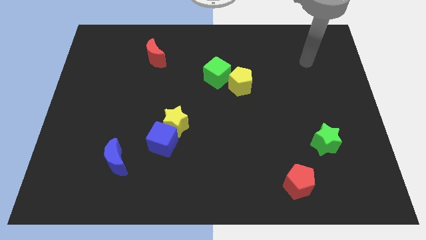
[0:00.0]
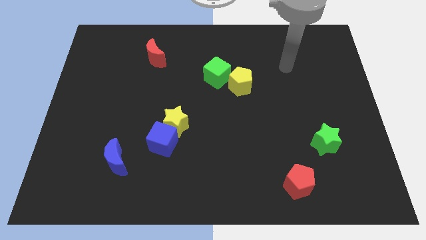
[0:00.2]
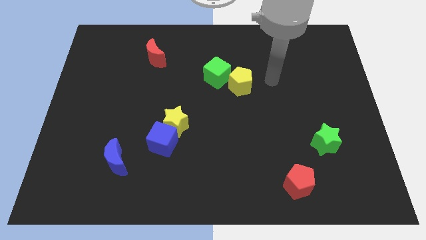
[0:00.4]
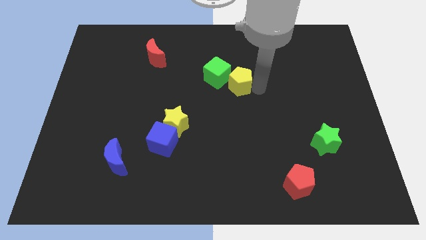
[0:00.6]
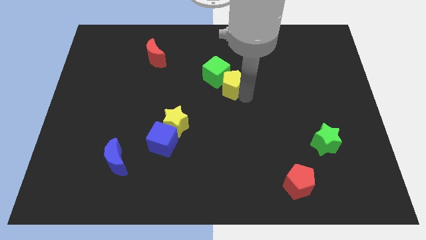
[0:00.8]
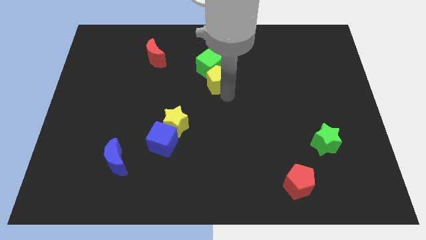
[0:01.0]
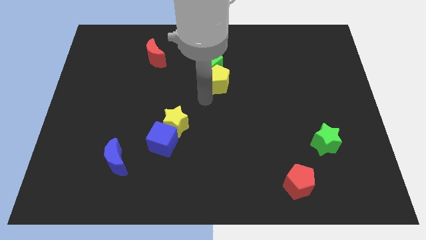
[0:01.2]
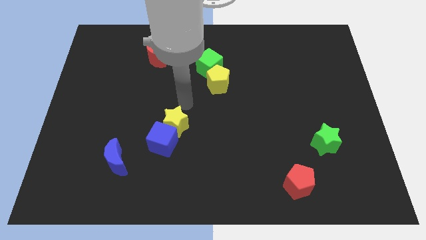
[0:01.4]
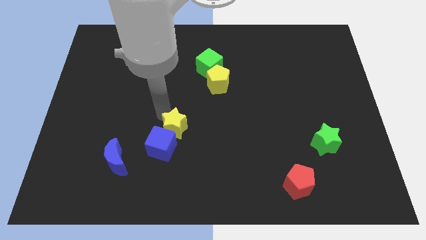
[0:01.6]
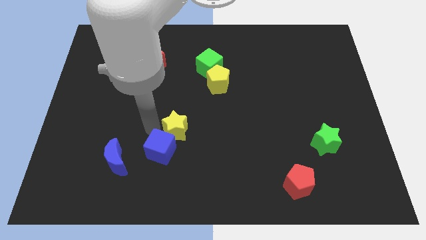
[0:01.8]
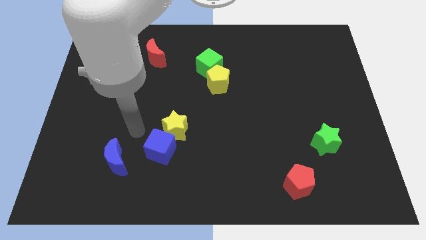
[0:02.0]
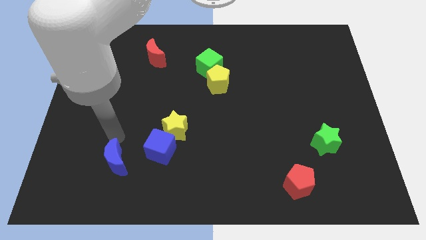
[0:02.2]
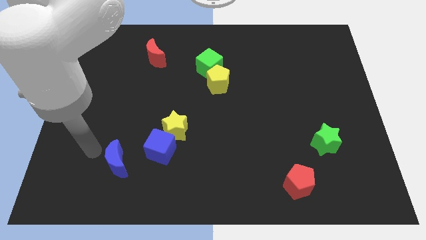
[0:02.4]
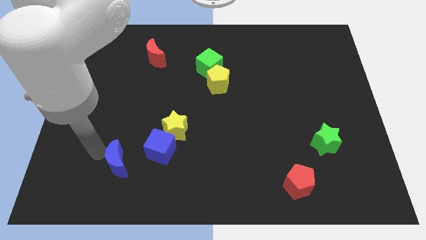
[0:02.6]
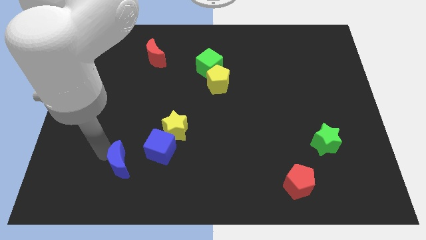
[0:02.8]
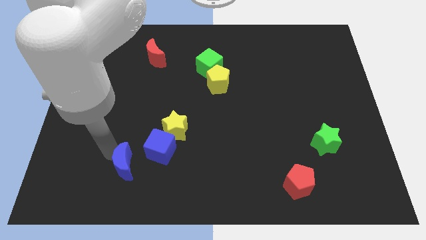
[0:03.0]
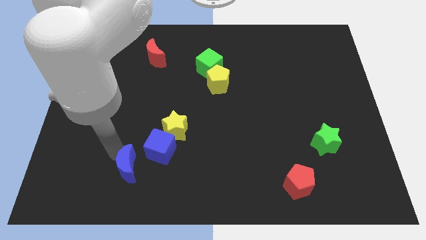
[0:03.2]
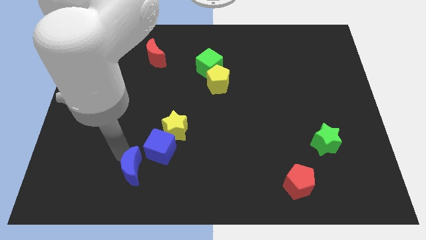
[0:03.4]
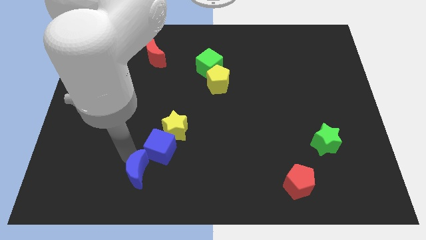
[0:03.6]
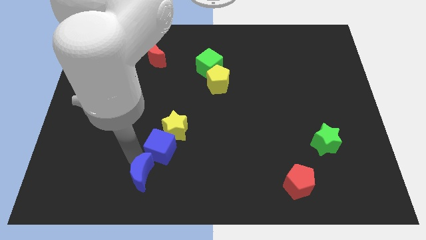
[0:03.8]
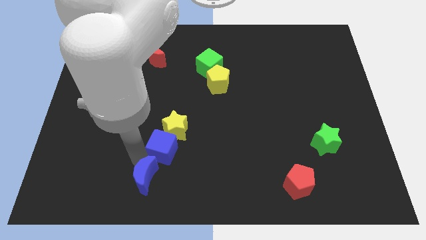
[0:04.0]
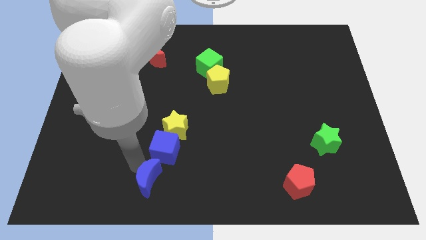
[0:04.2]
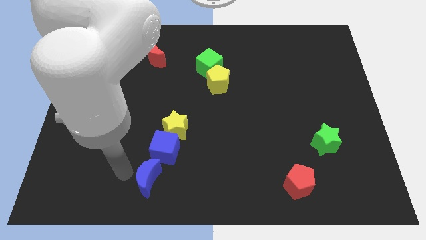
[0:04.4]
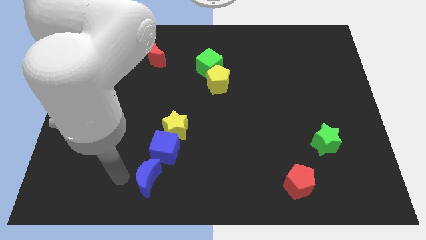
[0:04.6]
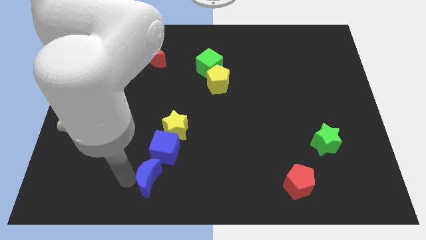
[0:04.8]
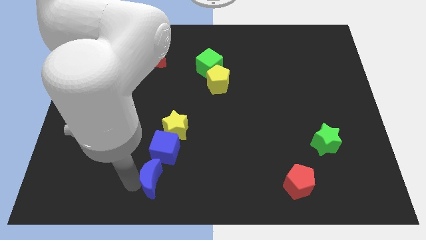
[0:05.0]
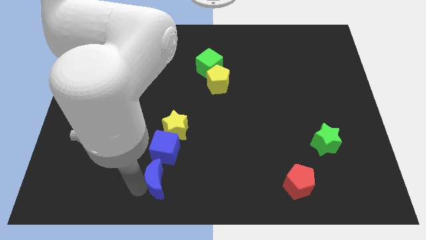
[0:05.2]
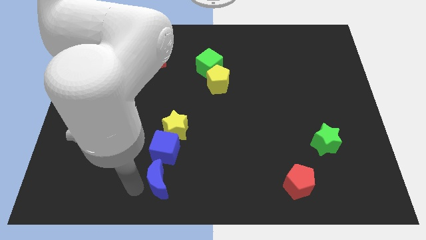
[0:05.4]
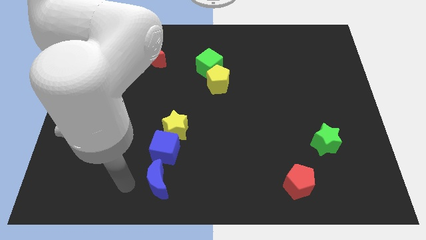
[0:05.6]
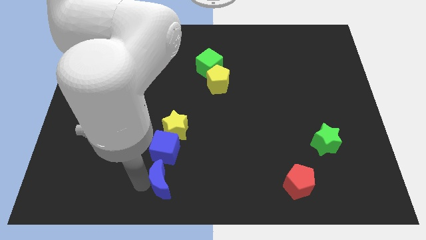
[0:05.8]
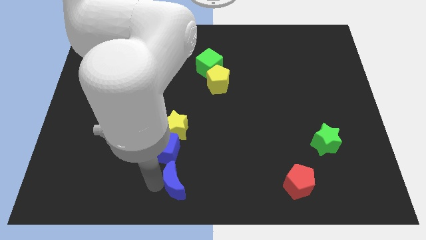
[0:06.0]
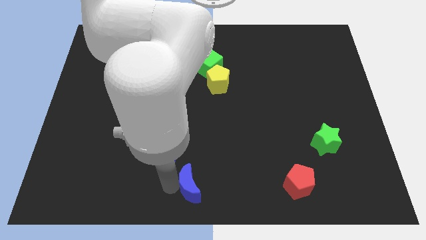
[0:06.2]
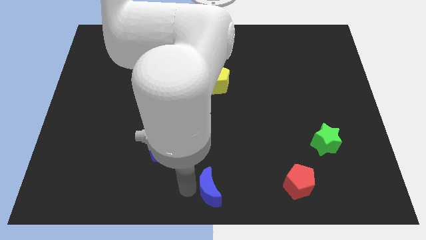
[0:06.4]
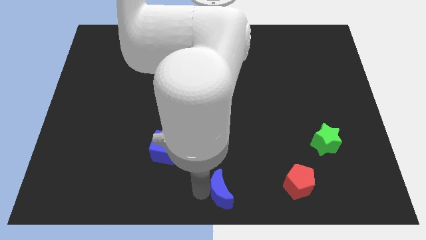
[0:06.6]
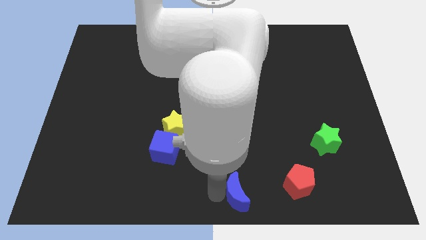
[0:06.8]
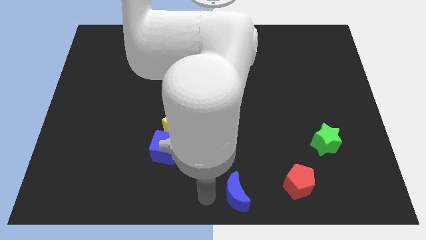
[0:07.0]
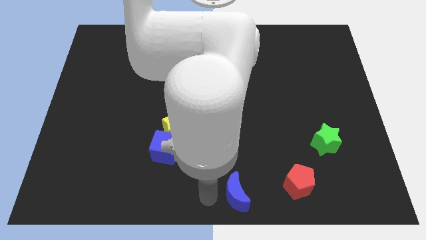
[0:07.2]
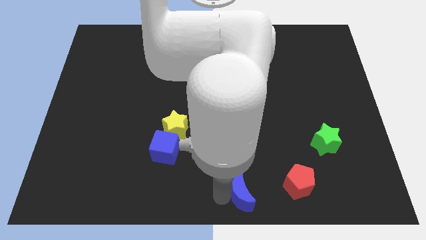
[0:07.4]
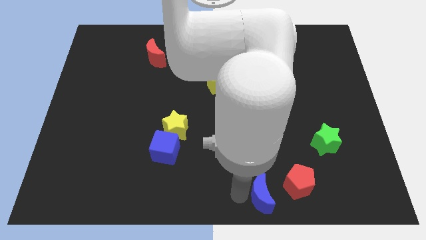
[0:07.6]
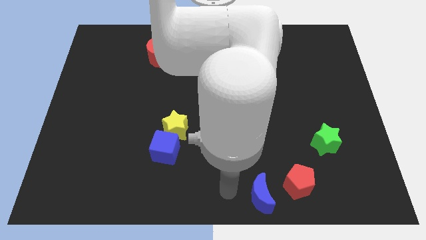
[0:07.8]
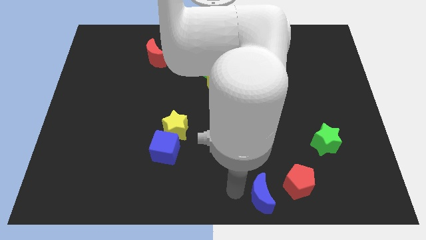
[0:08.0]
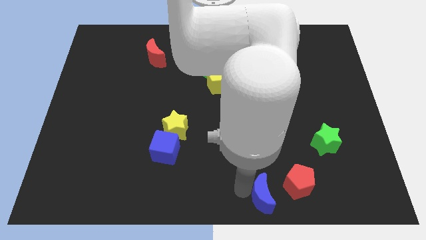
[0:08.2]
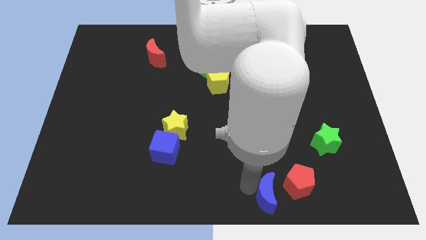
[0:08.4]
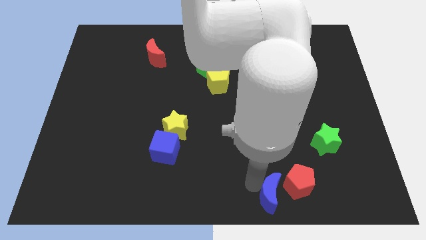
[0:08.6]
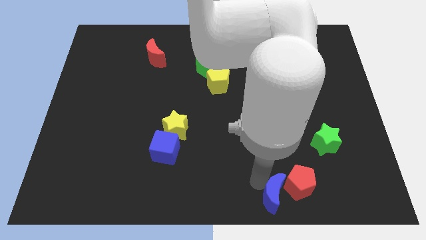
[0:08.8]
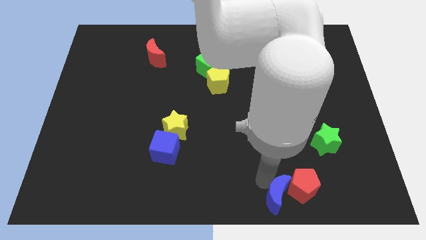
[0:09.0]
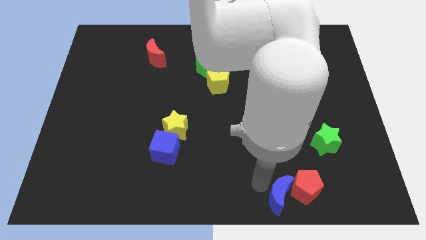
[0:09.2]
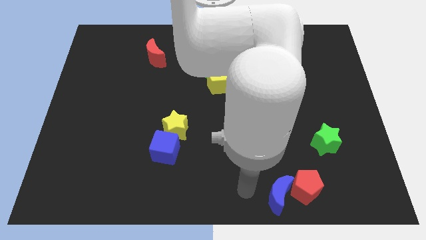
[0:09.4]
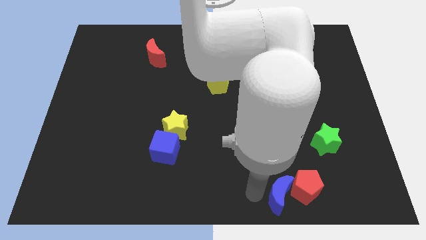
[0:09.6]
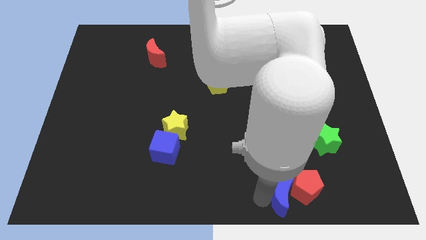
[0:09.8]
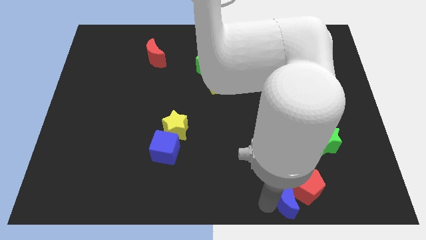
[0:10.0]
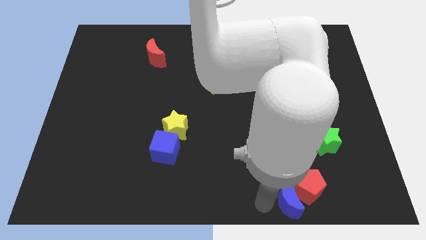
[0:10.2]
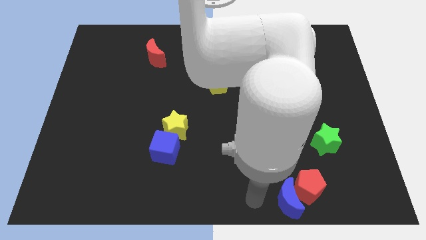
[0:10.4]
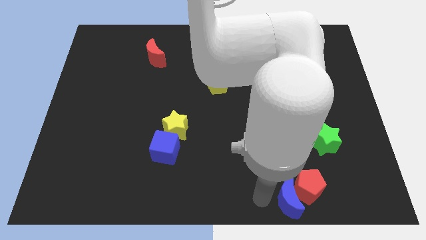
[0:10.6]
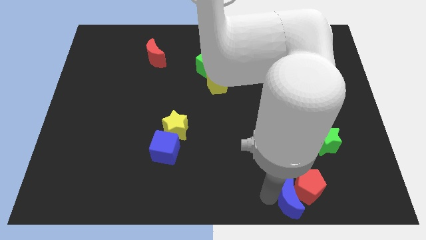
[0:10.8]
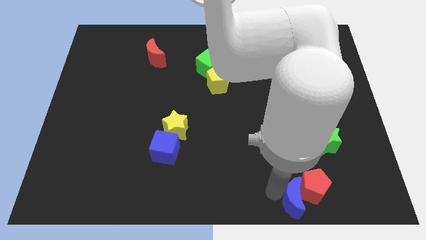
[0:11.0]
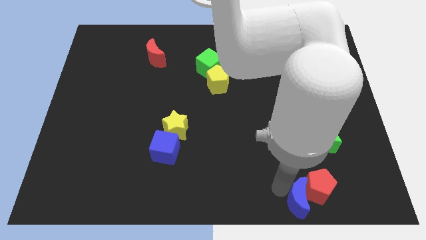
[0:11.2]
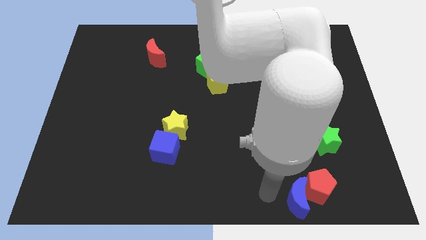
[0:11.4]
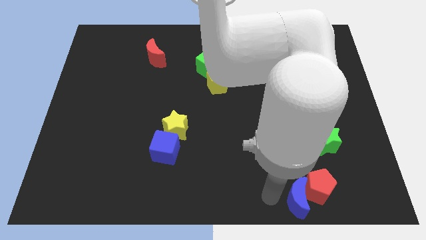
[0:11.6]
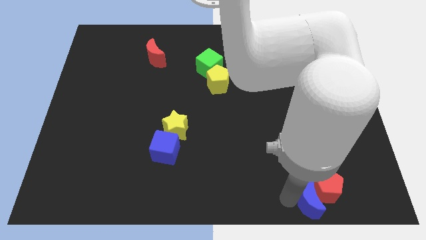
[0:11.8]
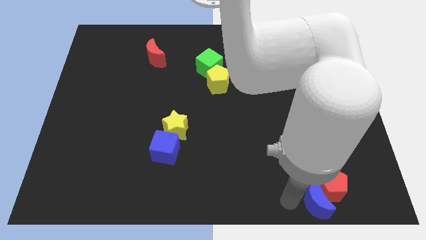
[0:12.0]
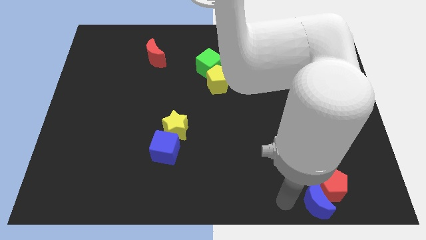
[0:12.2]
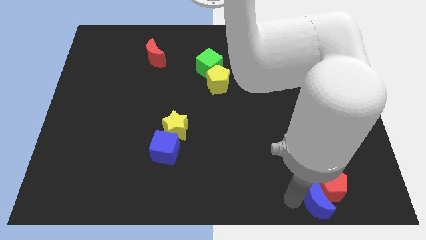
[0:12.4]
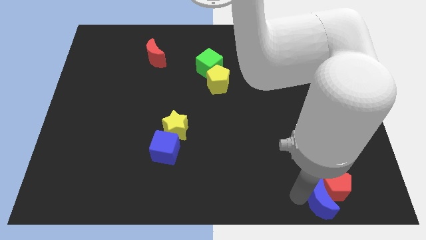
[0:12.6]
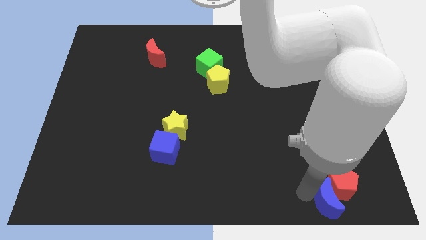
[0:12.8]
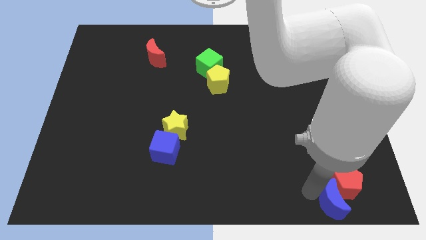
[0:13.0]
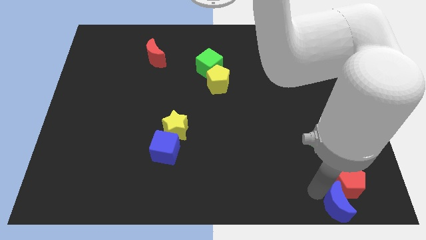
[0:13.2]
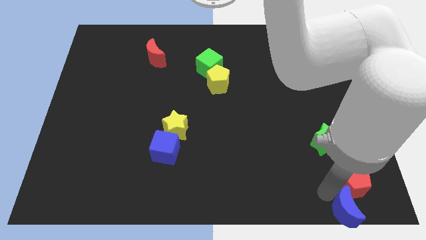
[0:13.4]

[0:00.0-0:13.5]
slide the blue moon to the bottom right
